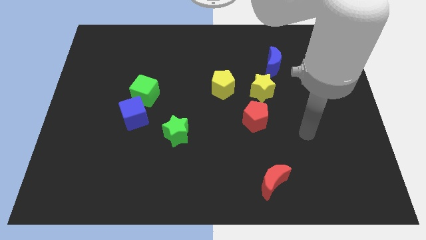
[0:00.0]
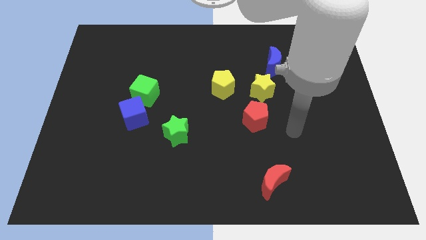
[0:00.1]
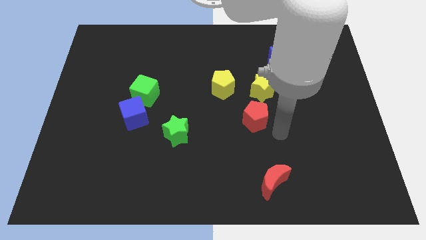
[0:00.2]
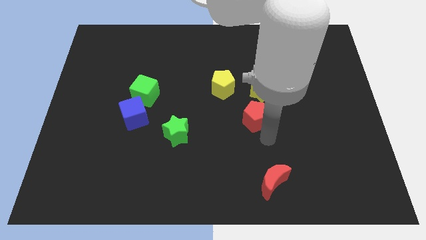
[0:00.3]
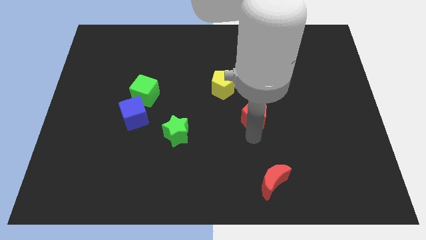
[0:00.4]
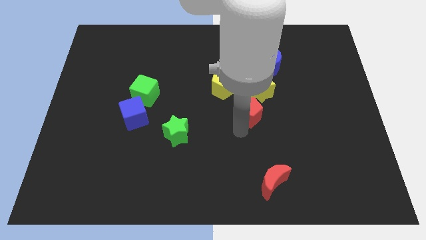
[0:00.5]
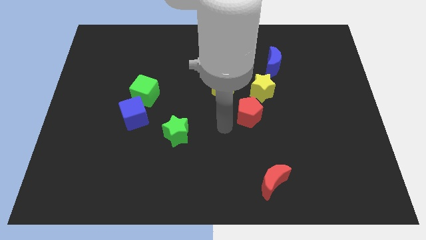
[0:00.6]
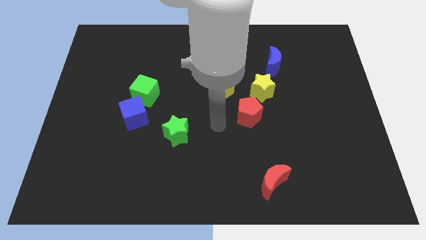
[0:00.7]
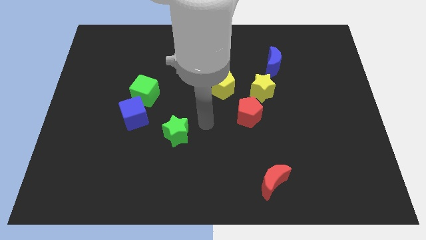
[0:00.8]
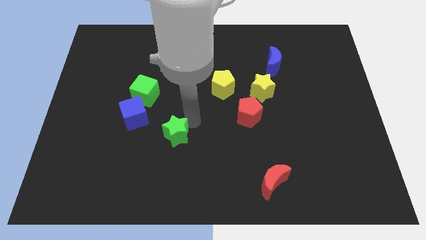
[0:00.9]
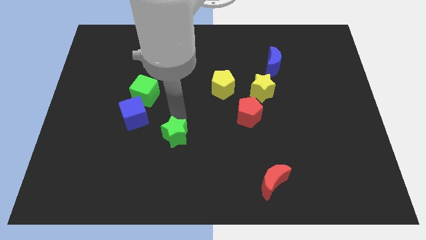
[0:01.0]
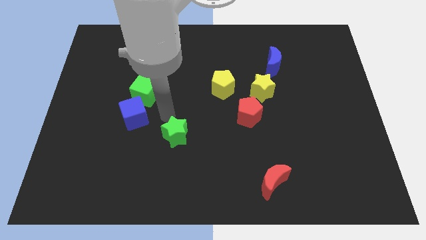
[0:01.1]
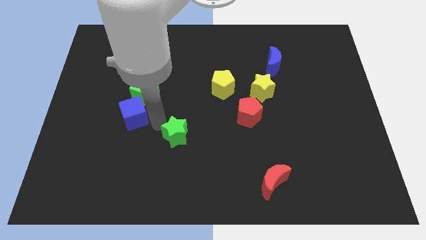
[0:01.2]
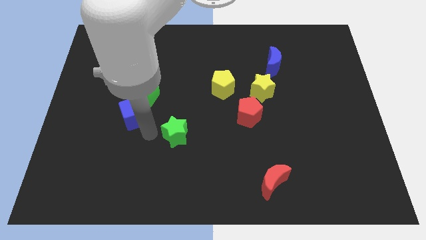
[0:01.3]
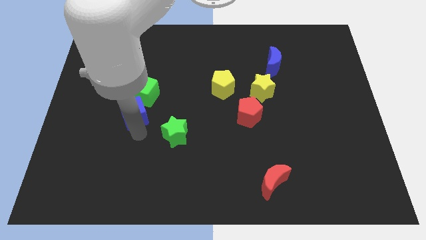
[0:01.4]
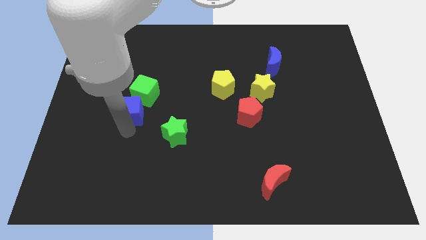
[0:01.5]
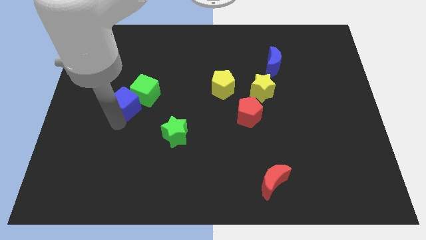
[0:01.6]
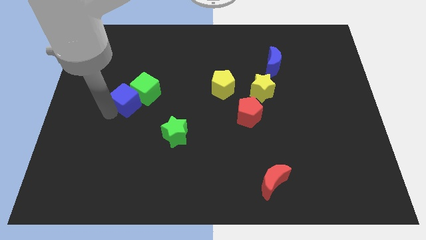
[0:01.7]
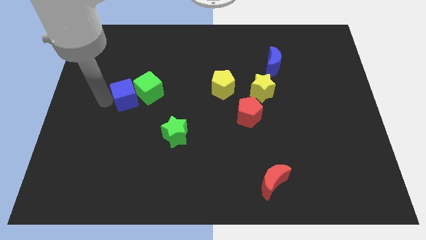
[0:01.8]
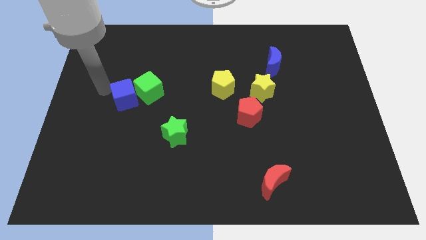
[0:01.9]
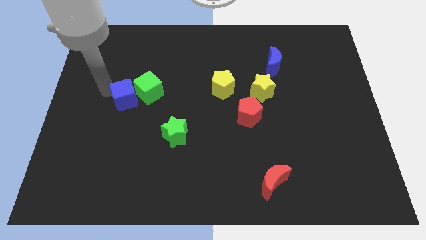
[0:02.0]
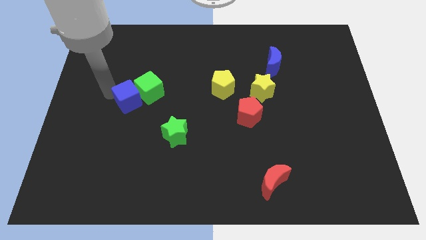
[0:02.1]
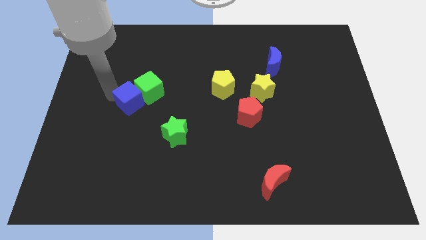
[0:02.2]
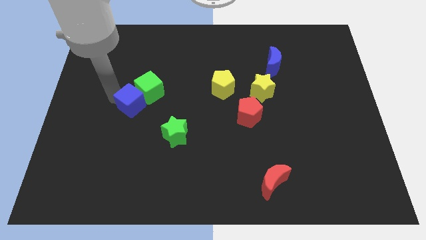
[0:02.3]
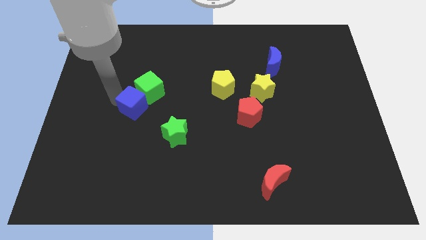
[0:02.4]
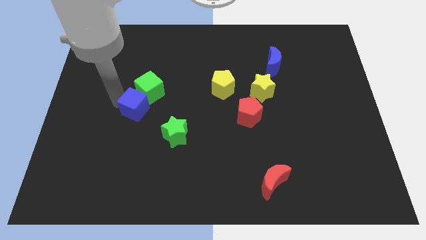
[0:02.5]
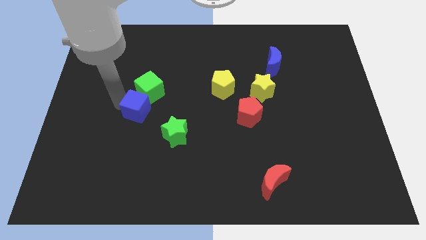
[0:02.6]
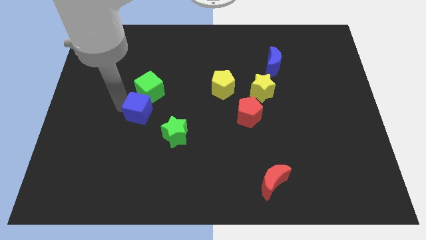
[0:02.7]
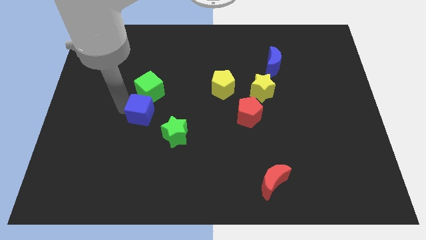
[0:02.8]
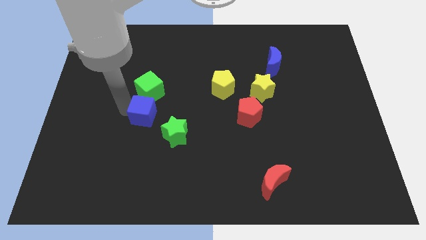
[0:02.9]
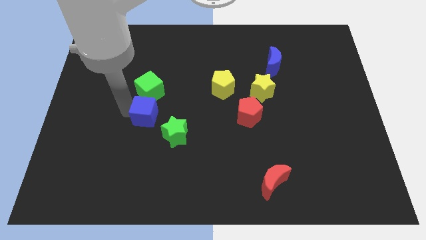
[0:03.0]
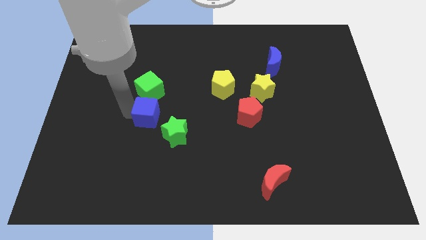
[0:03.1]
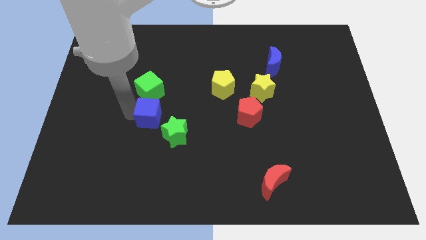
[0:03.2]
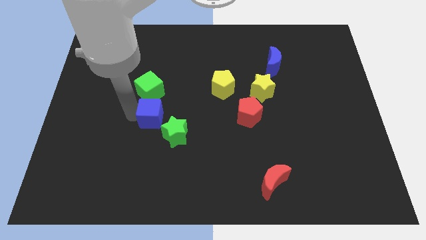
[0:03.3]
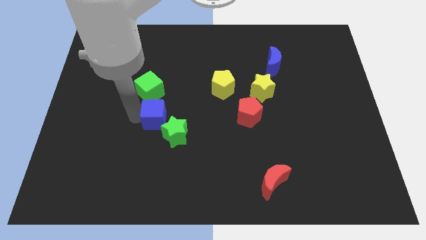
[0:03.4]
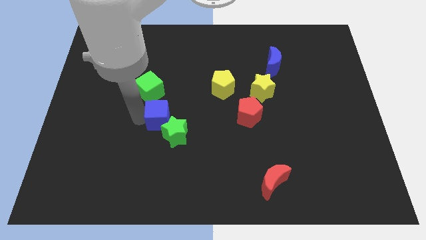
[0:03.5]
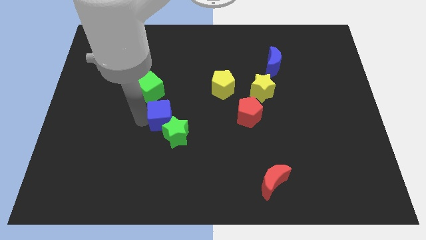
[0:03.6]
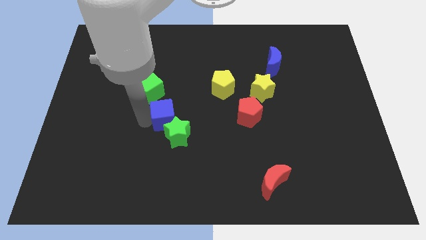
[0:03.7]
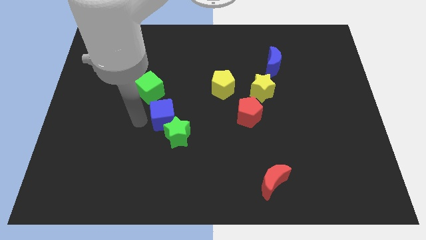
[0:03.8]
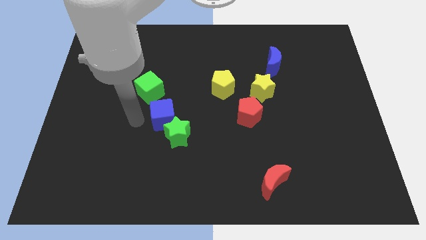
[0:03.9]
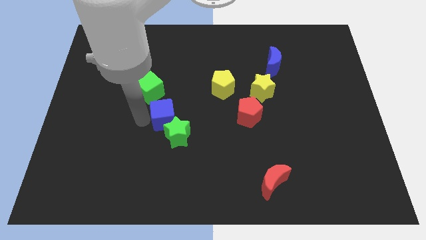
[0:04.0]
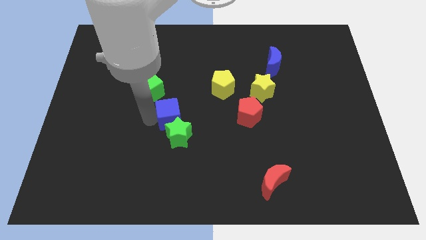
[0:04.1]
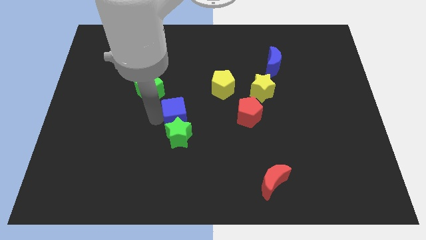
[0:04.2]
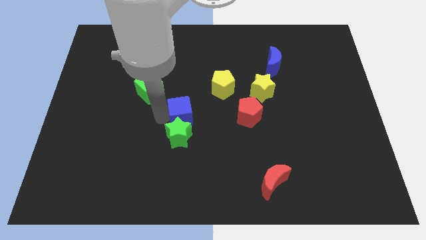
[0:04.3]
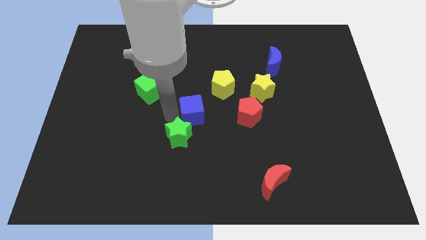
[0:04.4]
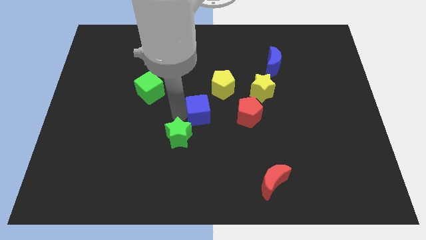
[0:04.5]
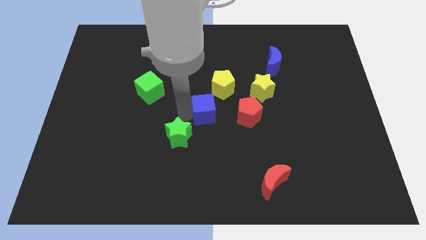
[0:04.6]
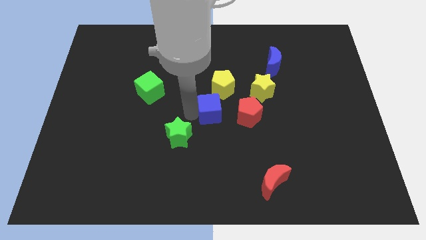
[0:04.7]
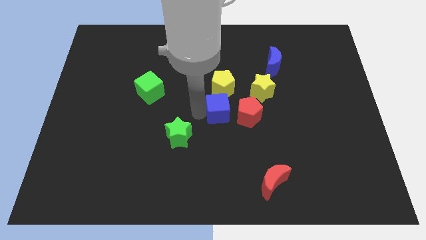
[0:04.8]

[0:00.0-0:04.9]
slide the blue cube to the bottom left side of the yellow star

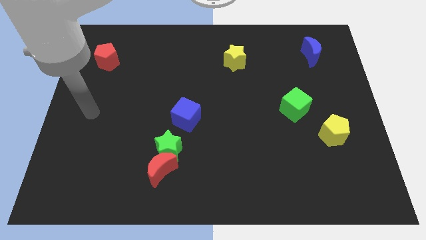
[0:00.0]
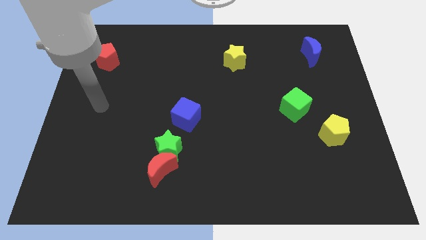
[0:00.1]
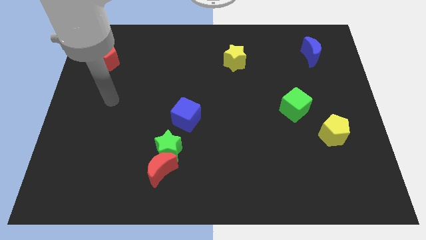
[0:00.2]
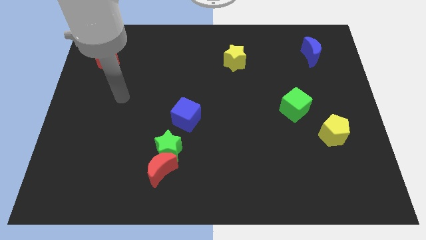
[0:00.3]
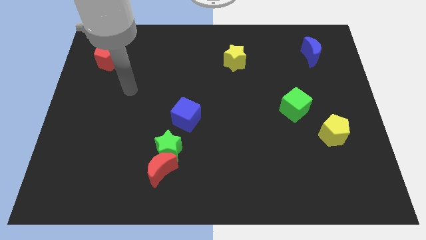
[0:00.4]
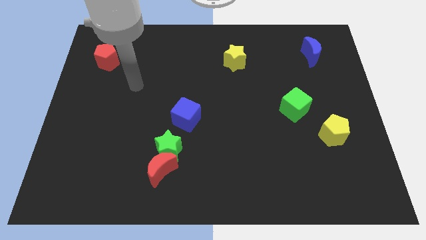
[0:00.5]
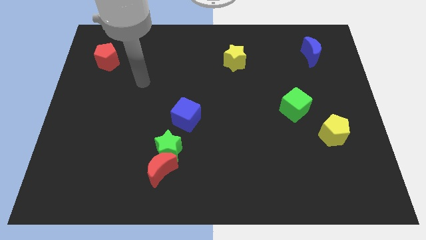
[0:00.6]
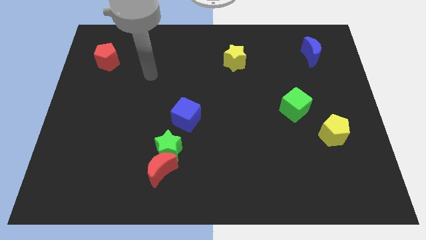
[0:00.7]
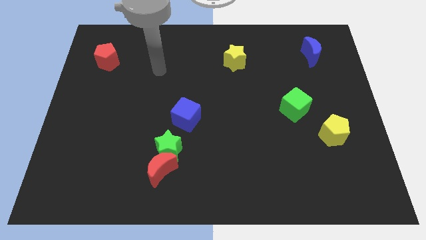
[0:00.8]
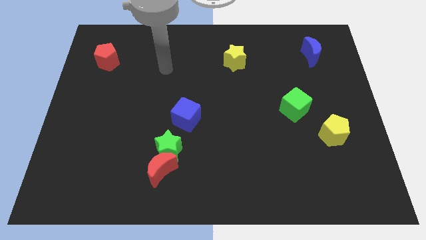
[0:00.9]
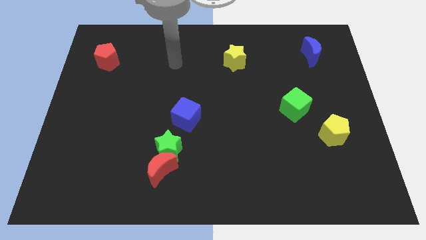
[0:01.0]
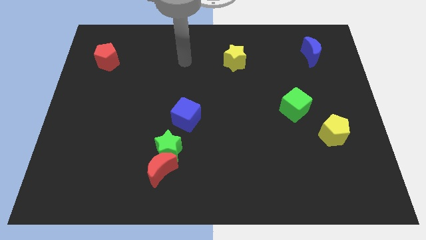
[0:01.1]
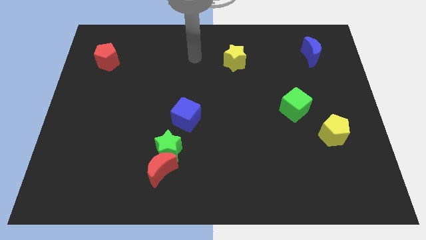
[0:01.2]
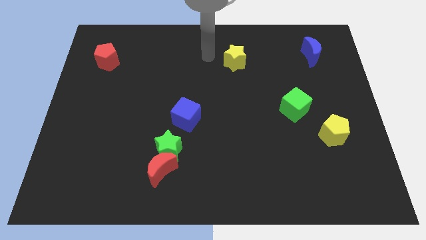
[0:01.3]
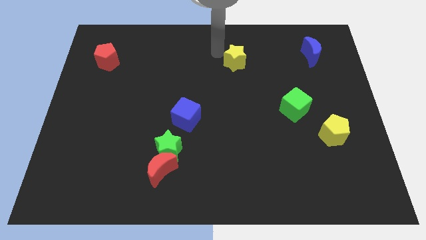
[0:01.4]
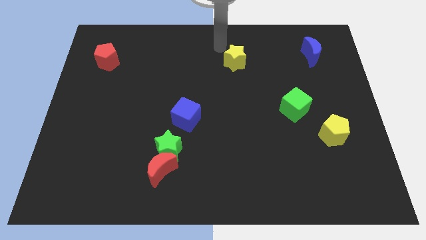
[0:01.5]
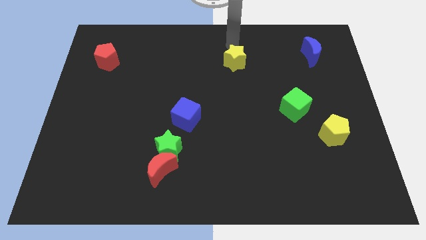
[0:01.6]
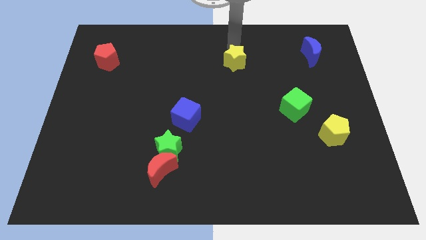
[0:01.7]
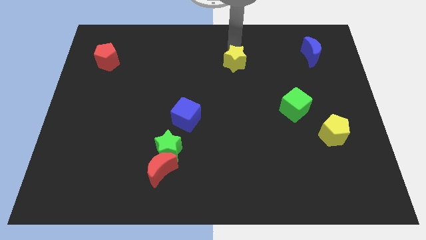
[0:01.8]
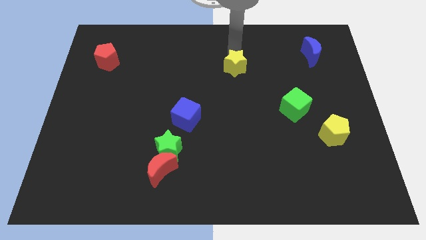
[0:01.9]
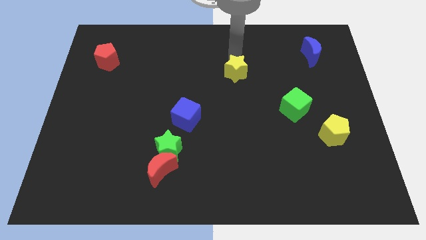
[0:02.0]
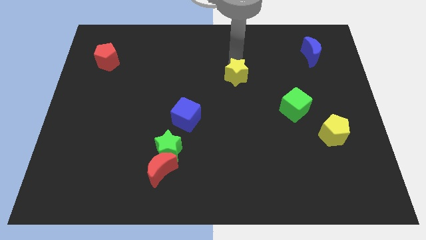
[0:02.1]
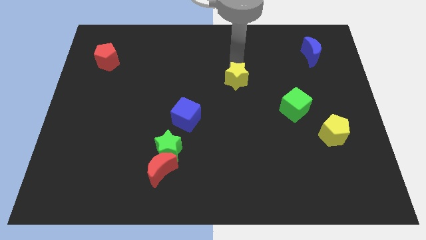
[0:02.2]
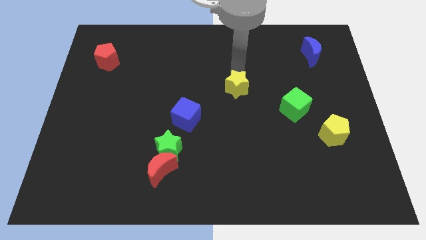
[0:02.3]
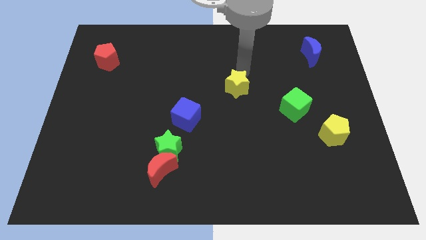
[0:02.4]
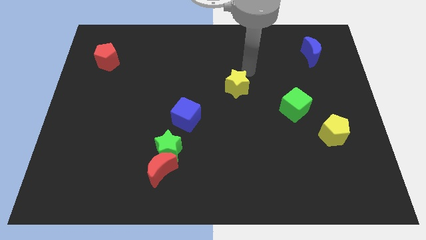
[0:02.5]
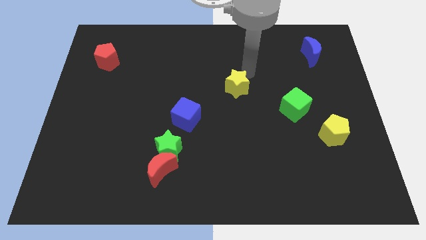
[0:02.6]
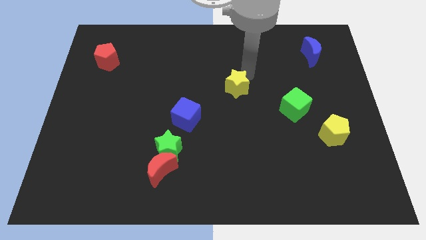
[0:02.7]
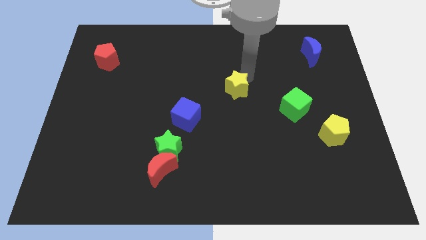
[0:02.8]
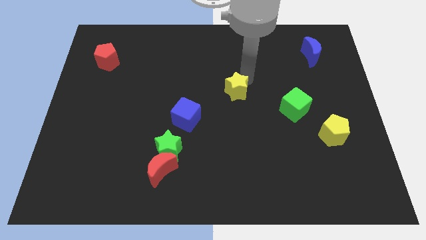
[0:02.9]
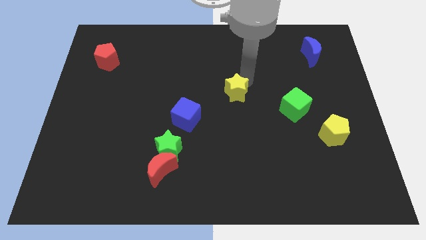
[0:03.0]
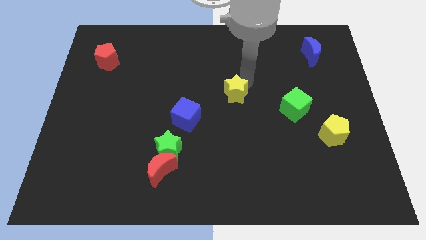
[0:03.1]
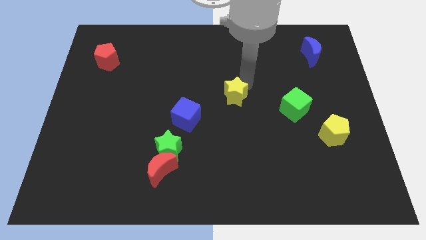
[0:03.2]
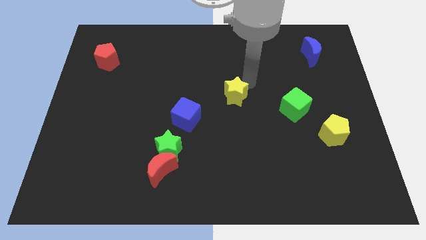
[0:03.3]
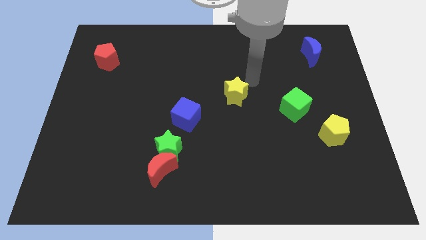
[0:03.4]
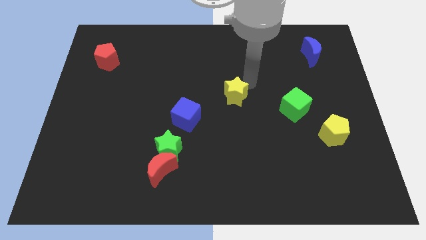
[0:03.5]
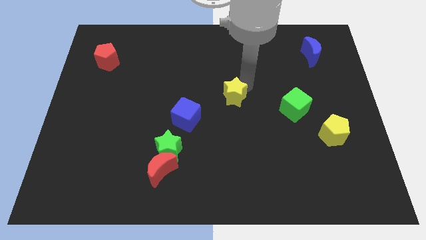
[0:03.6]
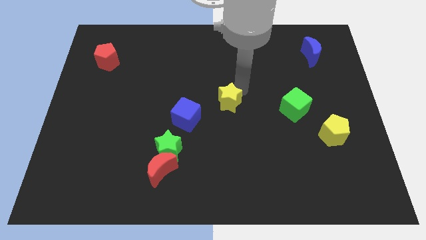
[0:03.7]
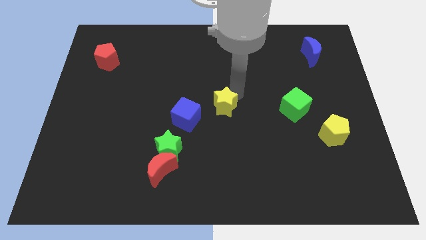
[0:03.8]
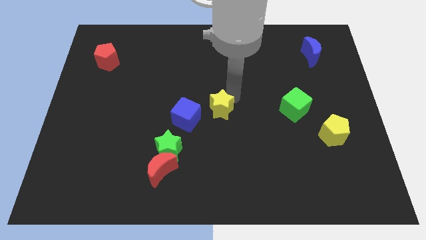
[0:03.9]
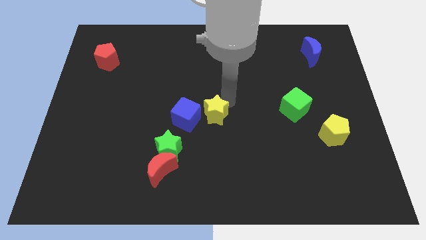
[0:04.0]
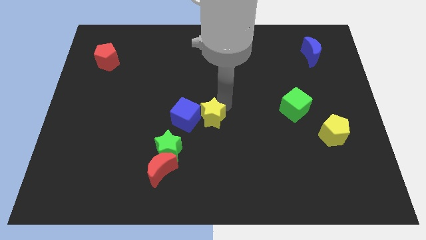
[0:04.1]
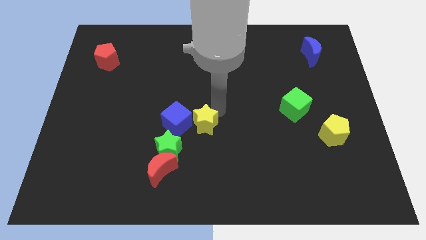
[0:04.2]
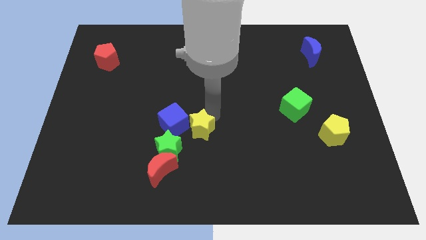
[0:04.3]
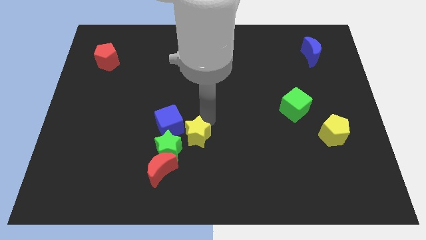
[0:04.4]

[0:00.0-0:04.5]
move the yellow star diagonally up and to the right of the red moon
